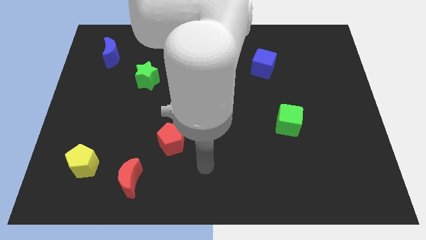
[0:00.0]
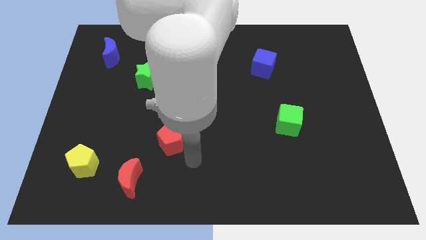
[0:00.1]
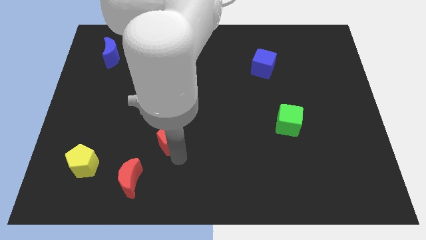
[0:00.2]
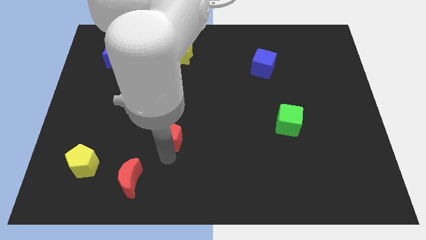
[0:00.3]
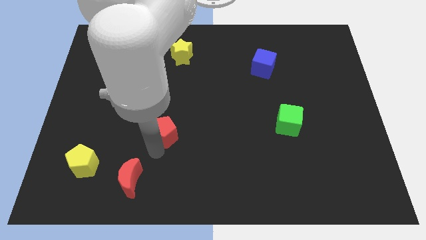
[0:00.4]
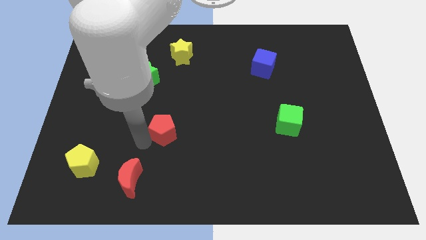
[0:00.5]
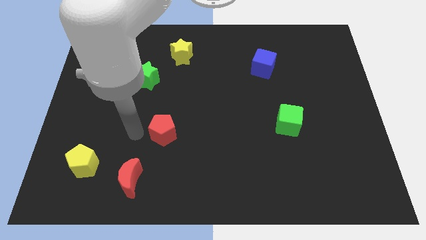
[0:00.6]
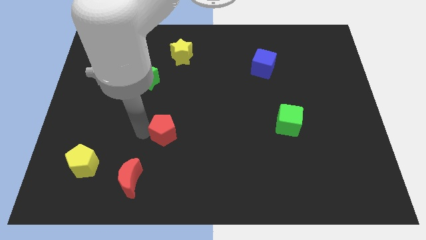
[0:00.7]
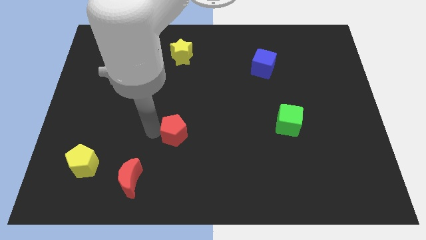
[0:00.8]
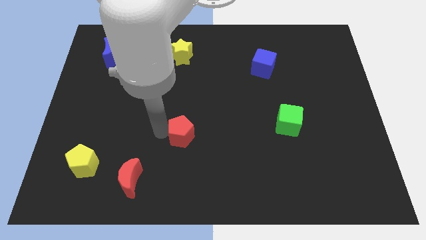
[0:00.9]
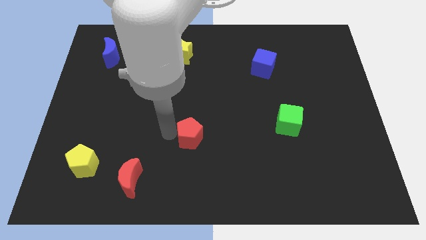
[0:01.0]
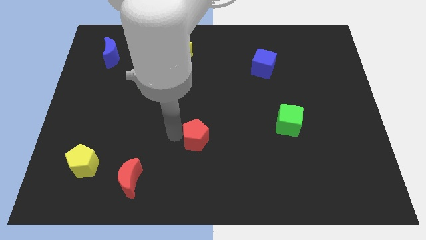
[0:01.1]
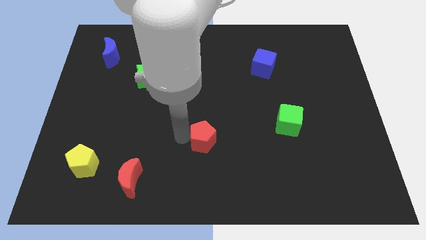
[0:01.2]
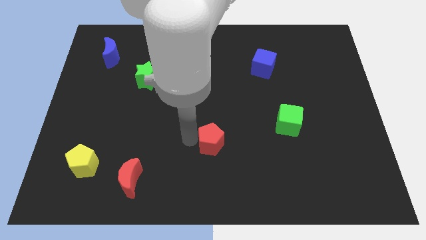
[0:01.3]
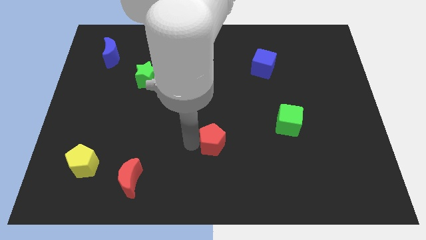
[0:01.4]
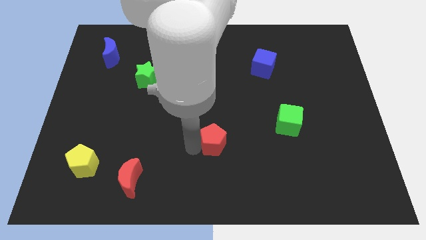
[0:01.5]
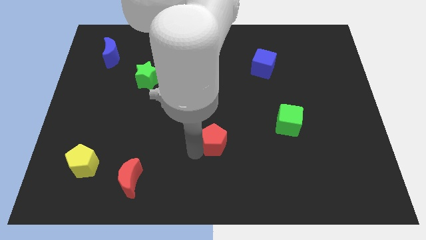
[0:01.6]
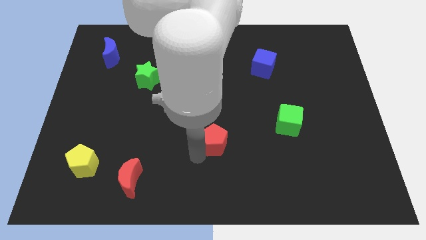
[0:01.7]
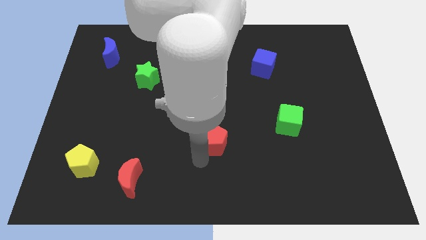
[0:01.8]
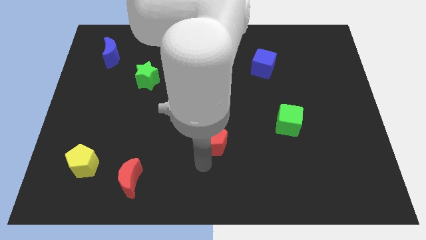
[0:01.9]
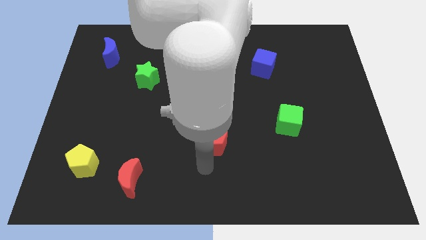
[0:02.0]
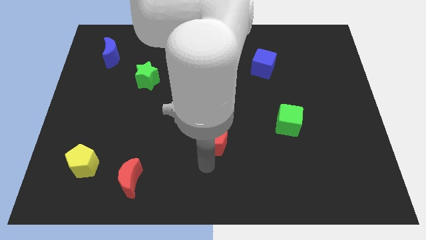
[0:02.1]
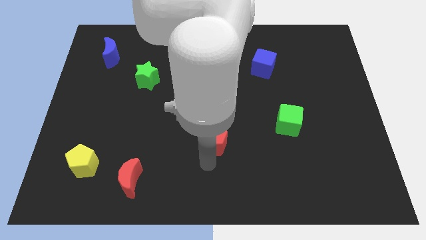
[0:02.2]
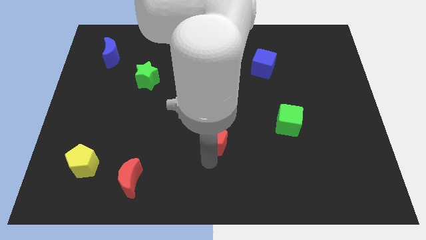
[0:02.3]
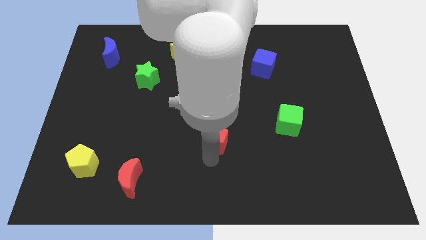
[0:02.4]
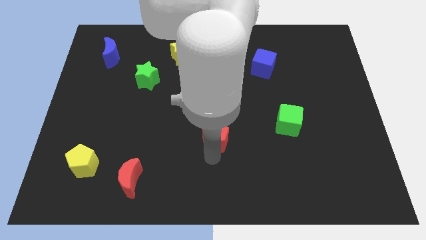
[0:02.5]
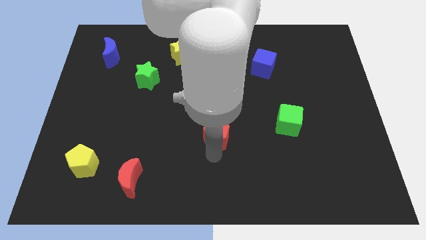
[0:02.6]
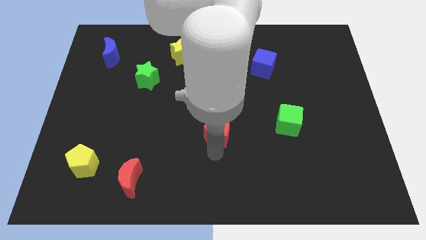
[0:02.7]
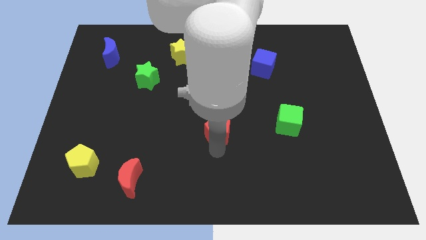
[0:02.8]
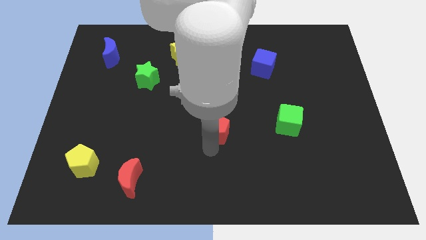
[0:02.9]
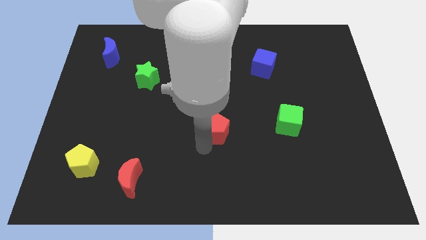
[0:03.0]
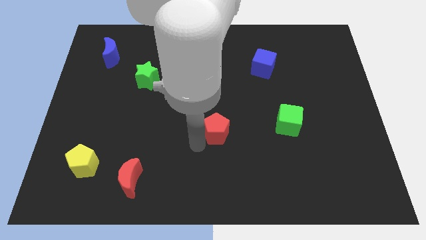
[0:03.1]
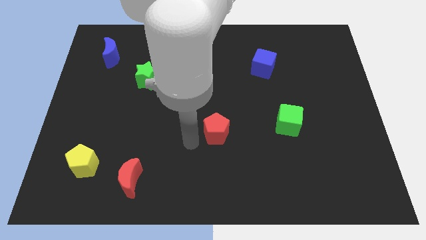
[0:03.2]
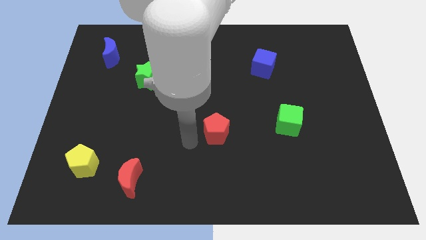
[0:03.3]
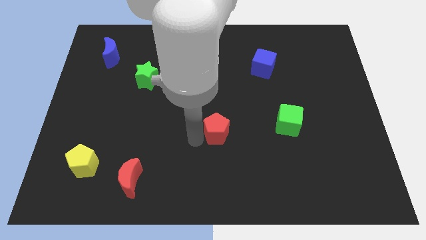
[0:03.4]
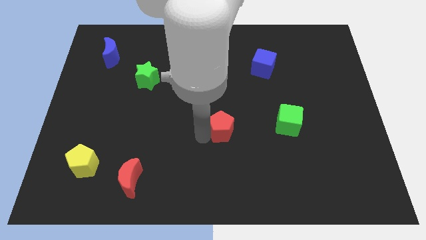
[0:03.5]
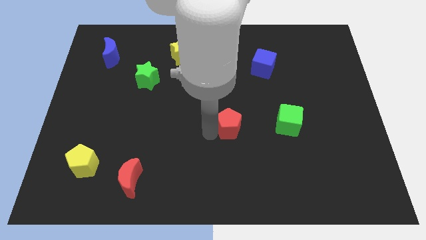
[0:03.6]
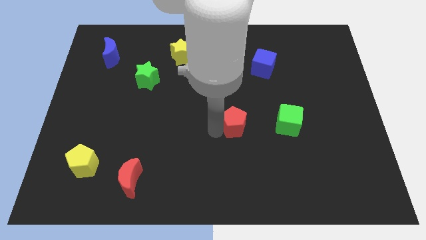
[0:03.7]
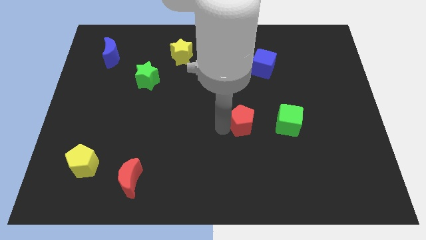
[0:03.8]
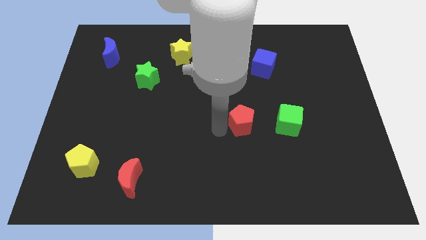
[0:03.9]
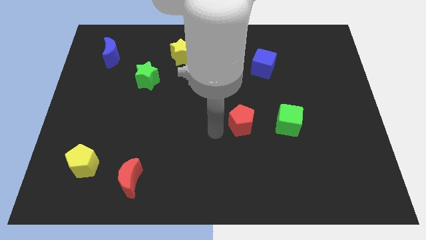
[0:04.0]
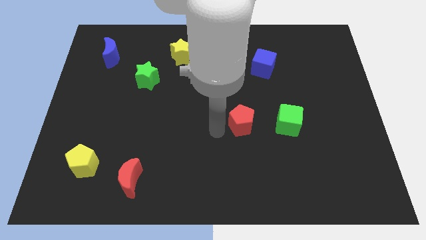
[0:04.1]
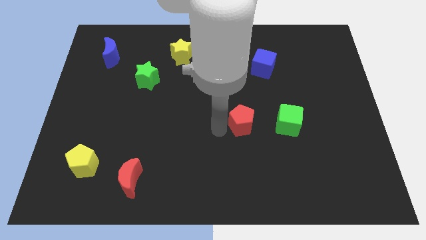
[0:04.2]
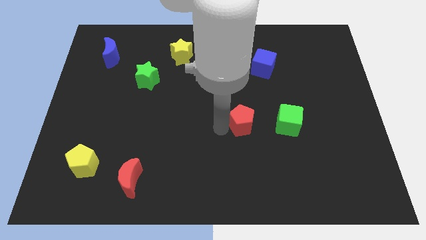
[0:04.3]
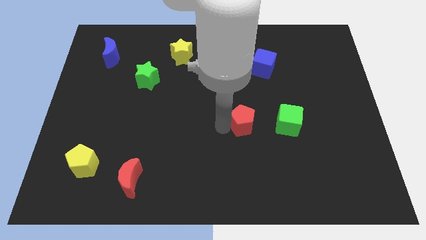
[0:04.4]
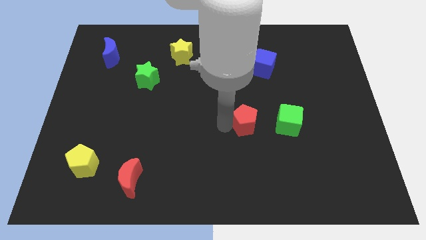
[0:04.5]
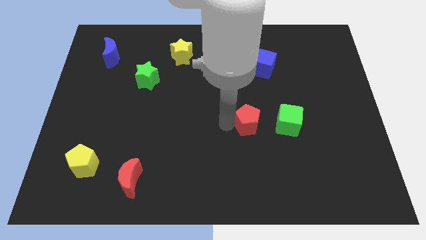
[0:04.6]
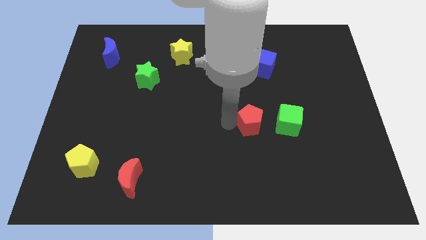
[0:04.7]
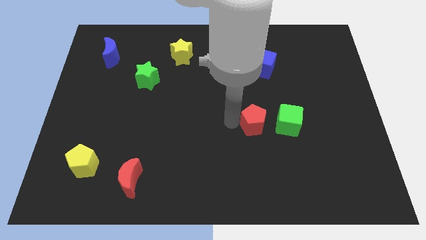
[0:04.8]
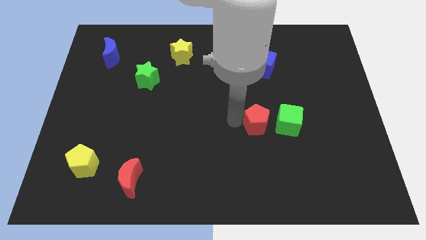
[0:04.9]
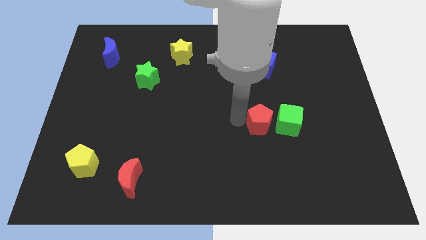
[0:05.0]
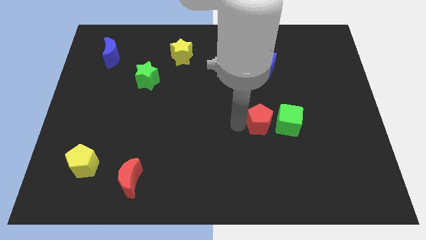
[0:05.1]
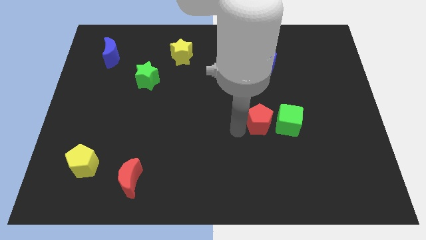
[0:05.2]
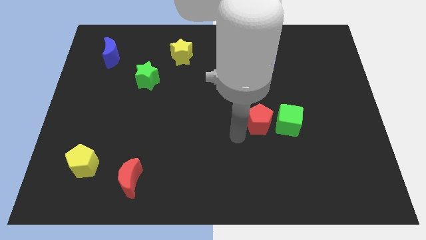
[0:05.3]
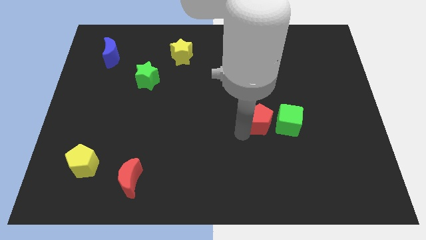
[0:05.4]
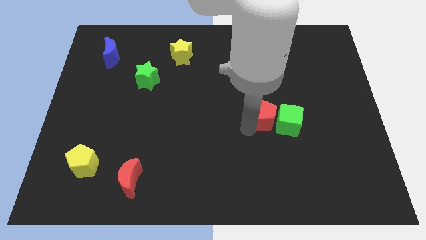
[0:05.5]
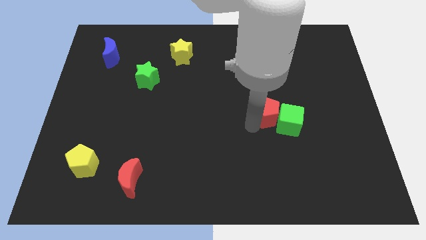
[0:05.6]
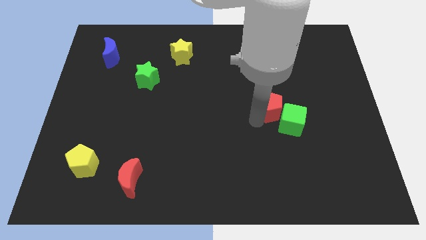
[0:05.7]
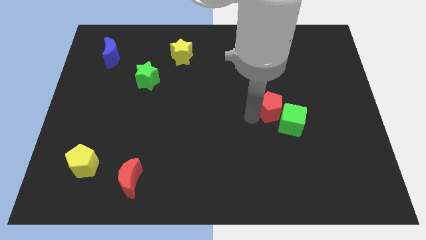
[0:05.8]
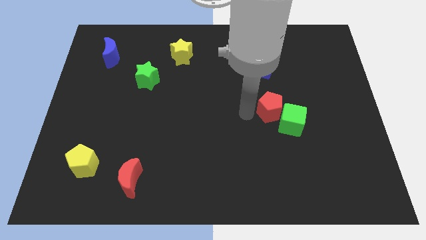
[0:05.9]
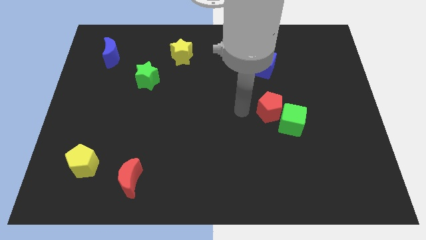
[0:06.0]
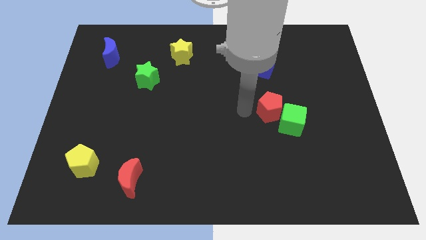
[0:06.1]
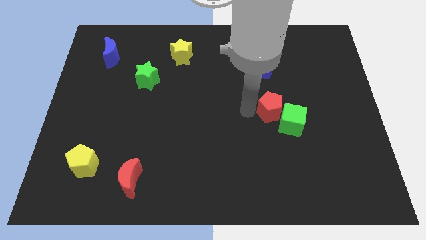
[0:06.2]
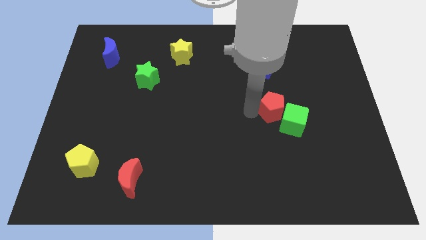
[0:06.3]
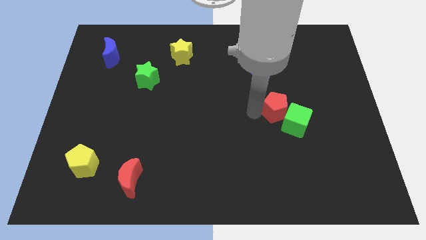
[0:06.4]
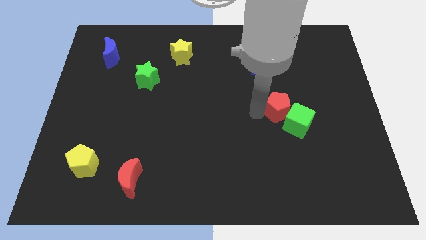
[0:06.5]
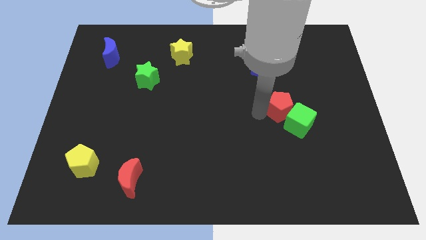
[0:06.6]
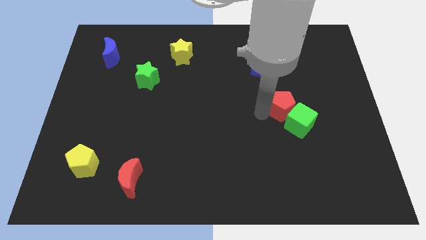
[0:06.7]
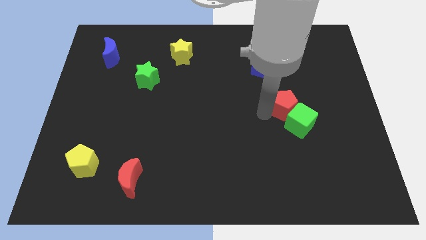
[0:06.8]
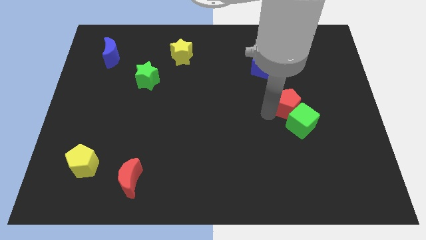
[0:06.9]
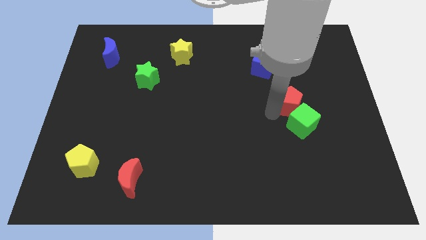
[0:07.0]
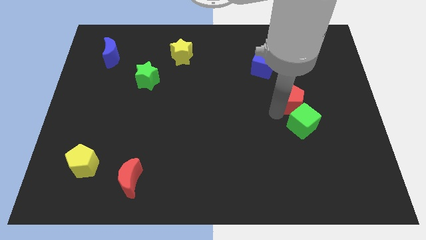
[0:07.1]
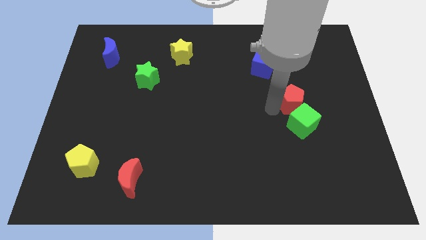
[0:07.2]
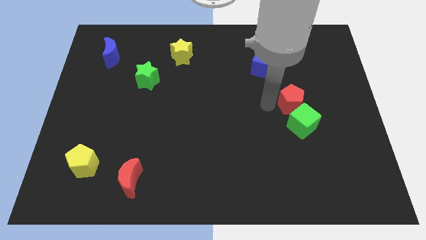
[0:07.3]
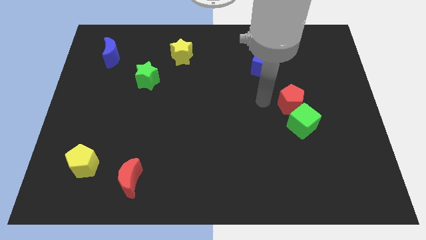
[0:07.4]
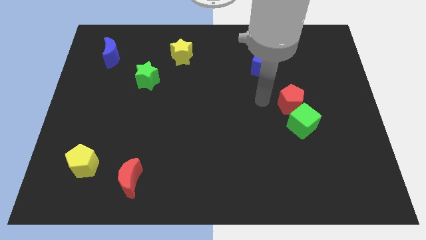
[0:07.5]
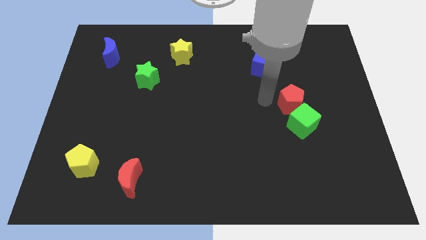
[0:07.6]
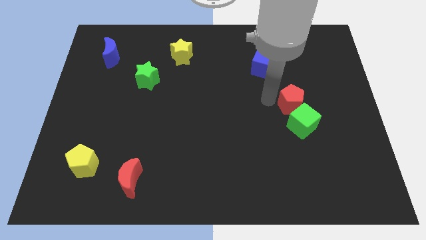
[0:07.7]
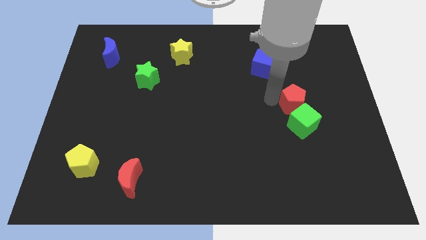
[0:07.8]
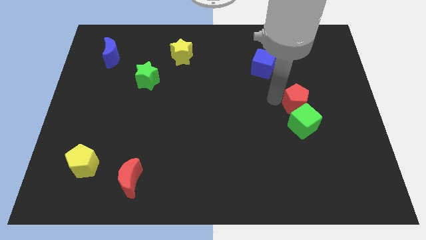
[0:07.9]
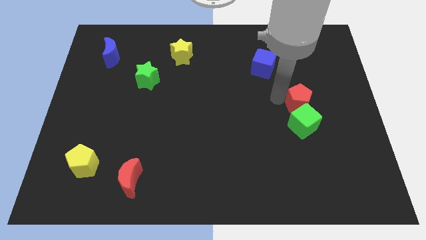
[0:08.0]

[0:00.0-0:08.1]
put the red pentagon to the top right of the green cube
